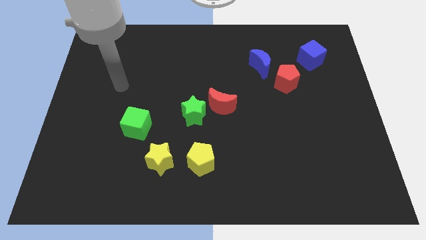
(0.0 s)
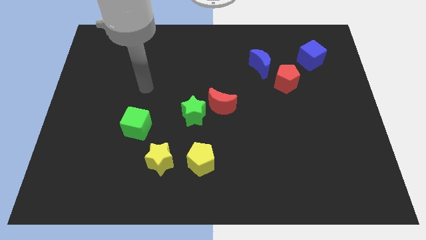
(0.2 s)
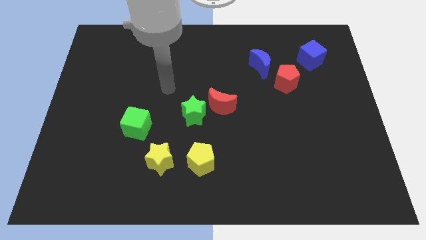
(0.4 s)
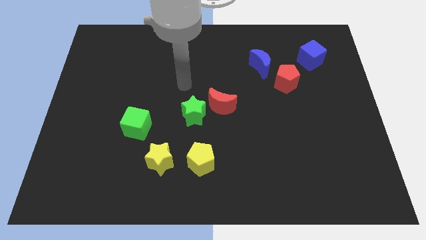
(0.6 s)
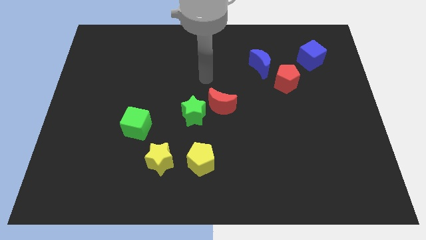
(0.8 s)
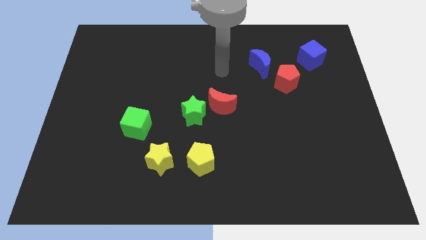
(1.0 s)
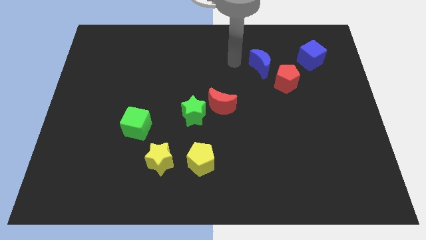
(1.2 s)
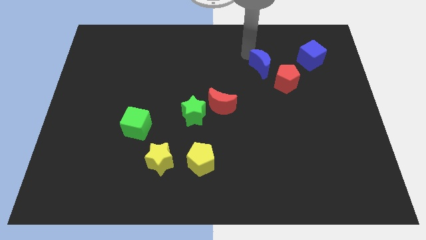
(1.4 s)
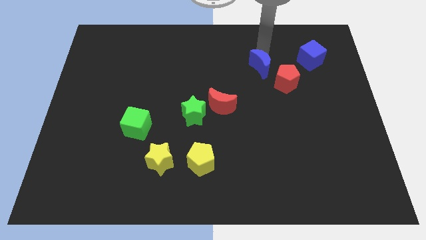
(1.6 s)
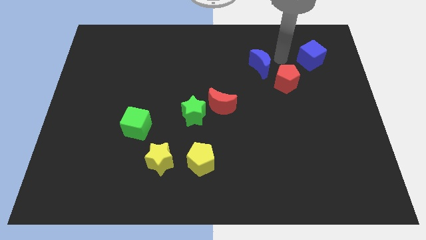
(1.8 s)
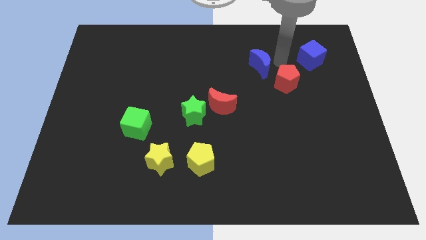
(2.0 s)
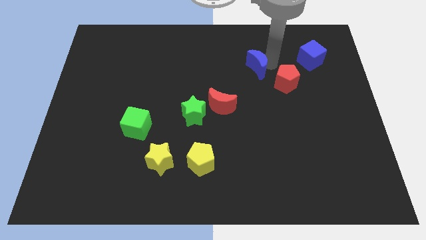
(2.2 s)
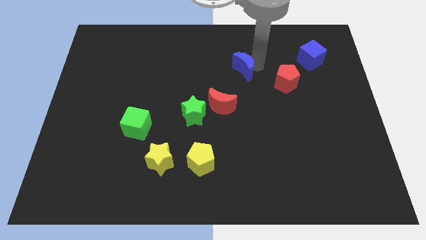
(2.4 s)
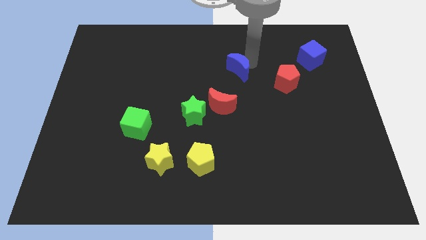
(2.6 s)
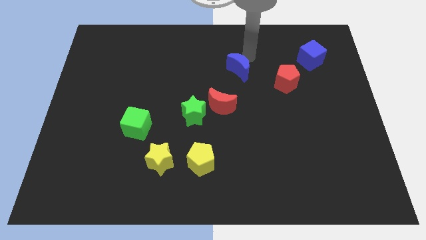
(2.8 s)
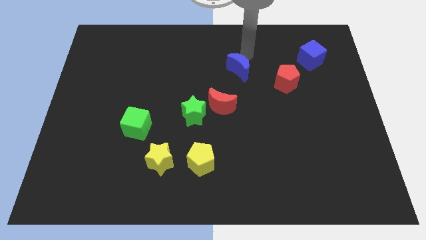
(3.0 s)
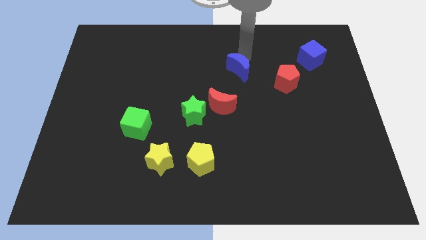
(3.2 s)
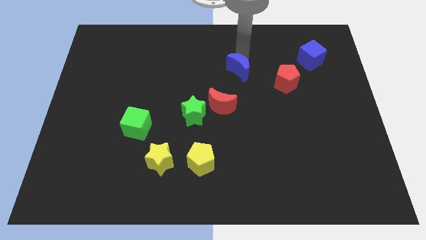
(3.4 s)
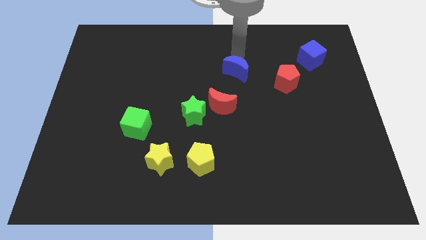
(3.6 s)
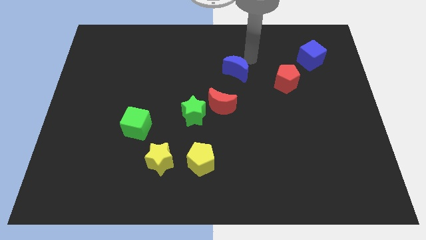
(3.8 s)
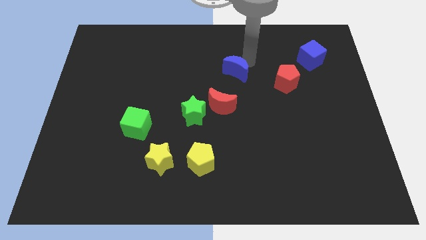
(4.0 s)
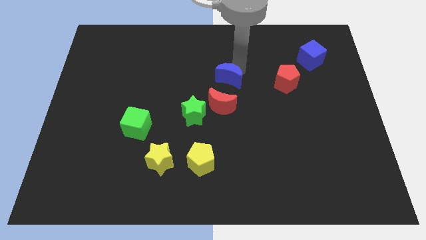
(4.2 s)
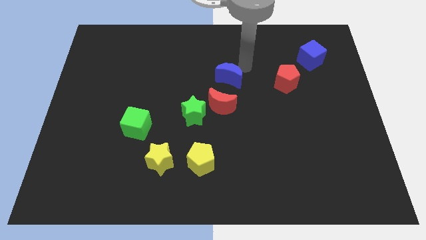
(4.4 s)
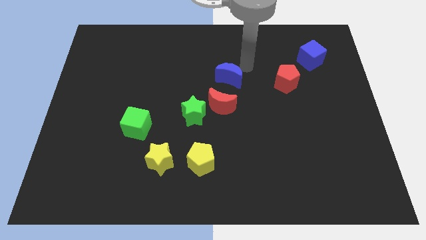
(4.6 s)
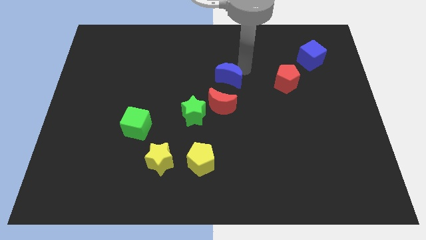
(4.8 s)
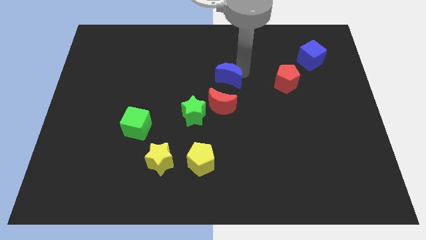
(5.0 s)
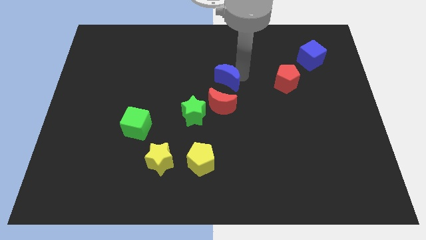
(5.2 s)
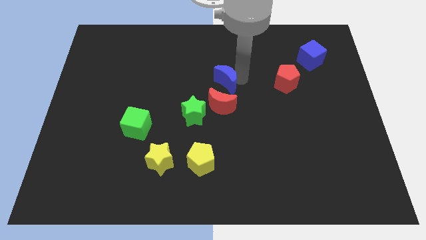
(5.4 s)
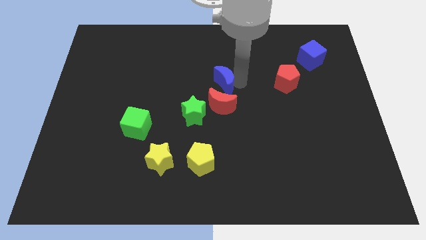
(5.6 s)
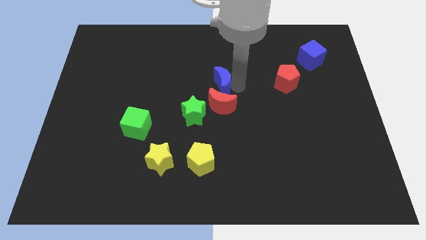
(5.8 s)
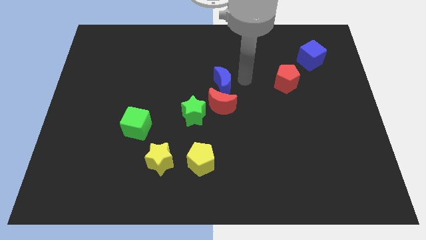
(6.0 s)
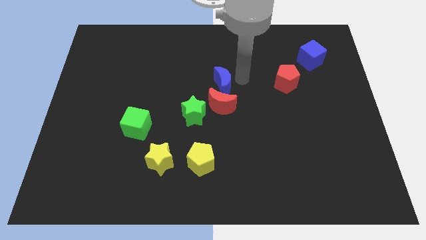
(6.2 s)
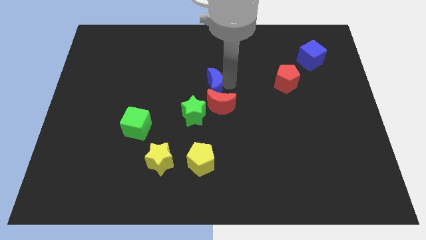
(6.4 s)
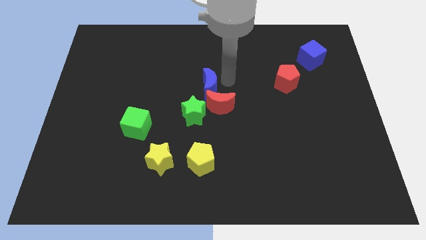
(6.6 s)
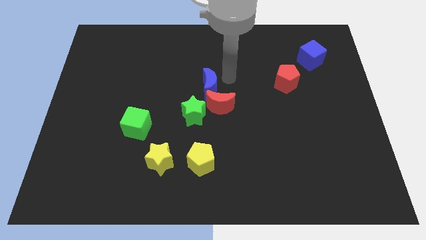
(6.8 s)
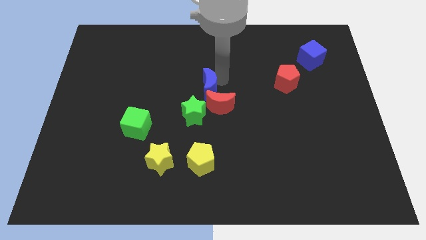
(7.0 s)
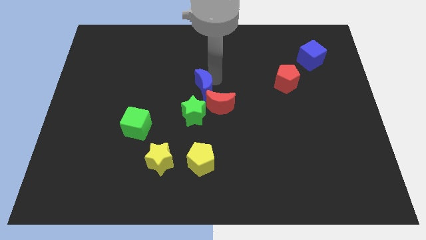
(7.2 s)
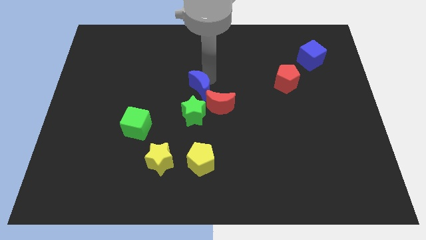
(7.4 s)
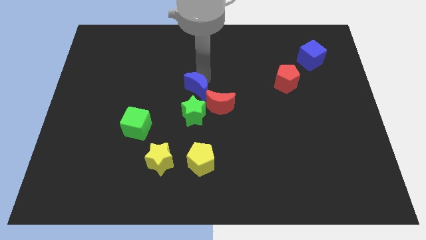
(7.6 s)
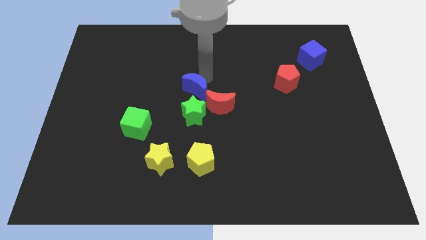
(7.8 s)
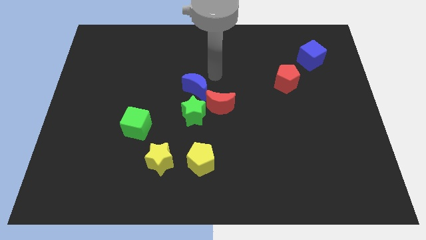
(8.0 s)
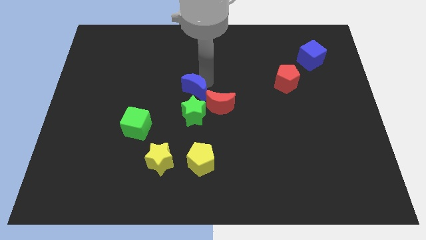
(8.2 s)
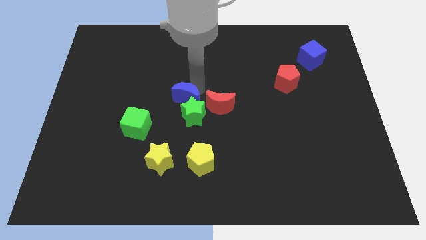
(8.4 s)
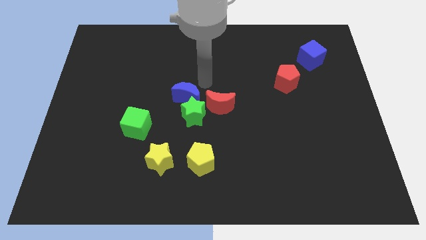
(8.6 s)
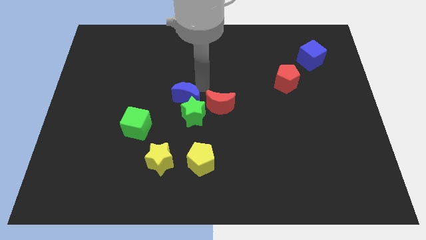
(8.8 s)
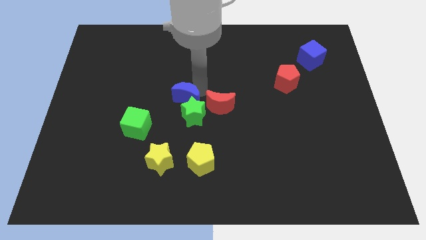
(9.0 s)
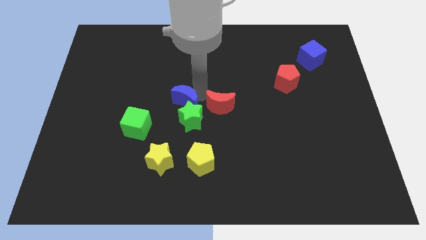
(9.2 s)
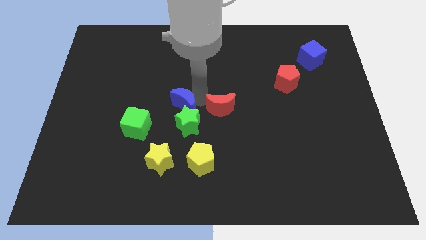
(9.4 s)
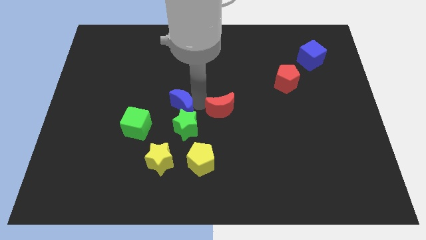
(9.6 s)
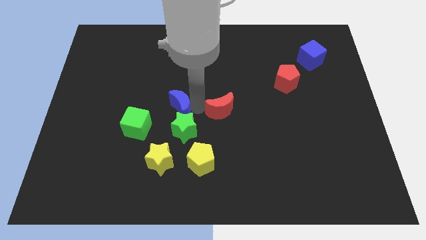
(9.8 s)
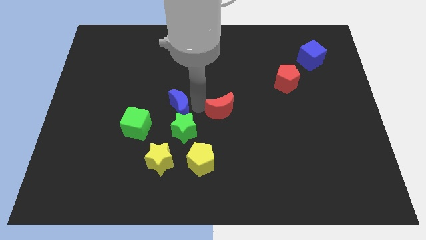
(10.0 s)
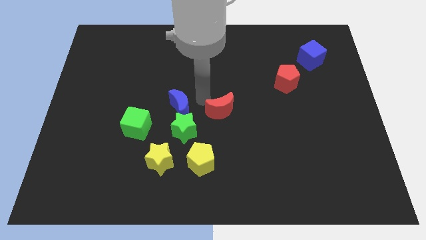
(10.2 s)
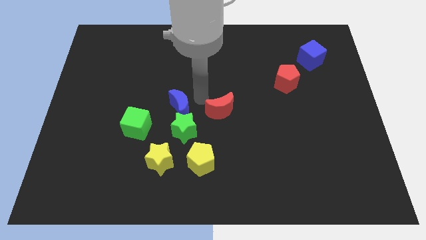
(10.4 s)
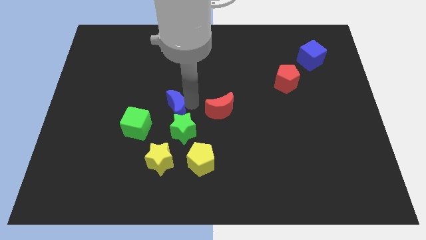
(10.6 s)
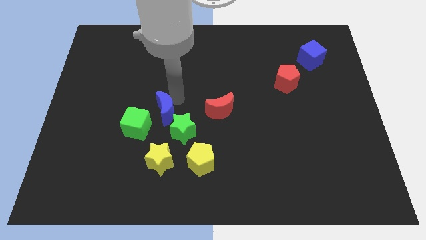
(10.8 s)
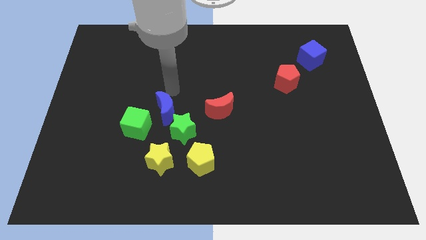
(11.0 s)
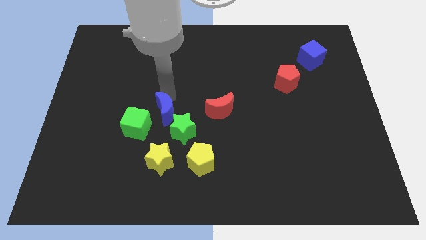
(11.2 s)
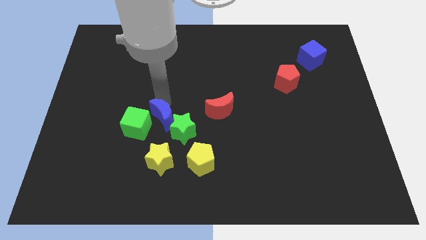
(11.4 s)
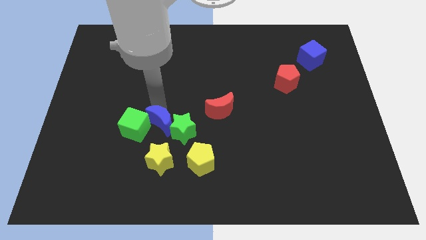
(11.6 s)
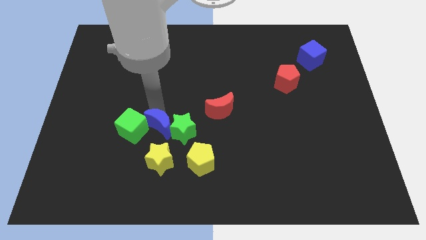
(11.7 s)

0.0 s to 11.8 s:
move the blue moon to the bottom left of the green star

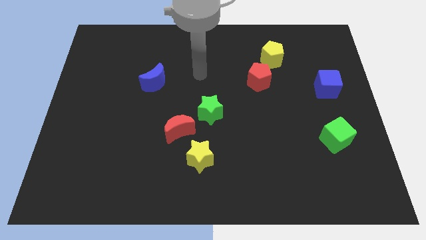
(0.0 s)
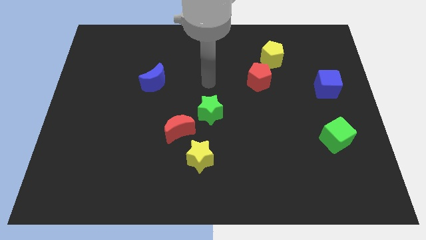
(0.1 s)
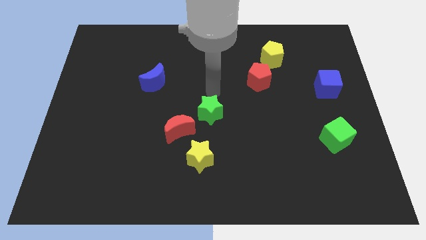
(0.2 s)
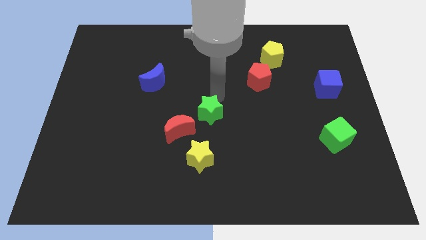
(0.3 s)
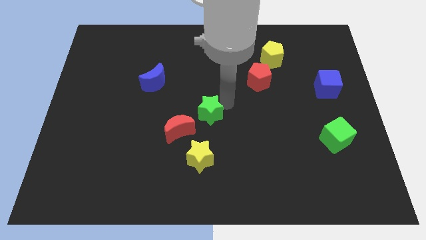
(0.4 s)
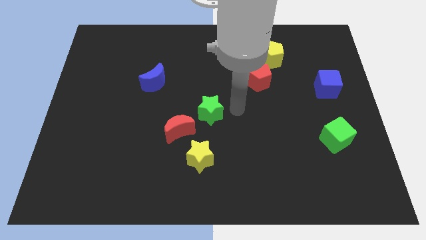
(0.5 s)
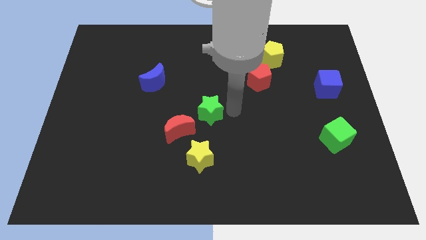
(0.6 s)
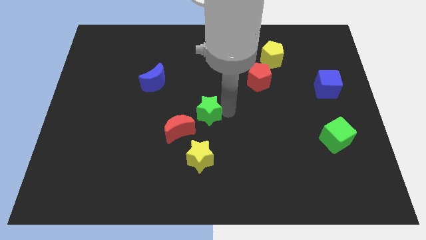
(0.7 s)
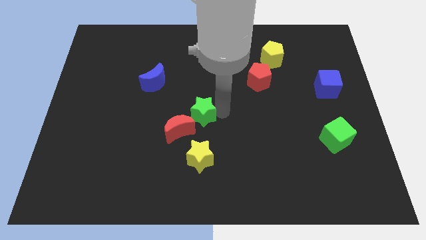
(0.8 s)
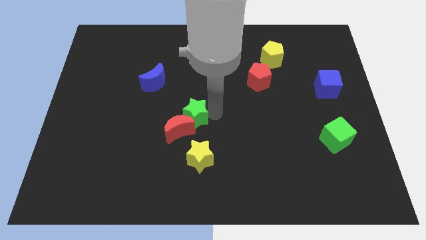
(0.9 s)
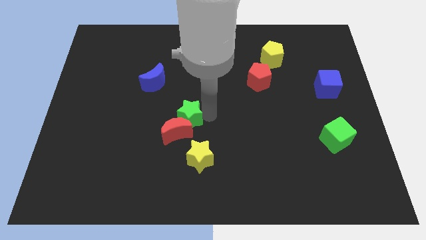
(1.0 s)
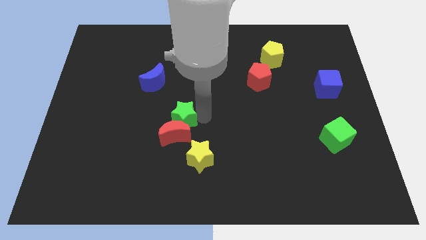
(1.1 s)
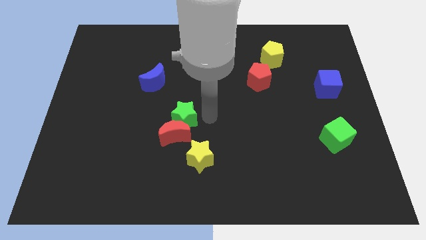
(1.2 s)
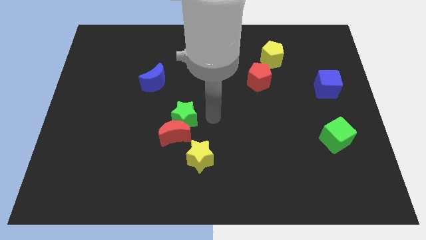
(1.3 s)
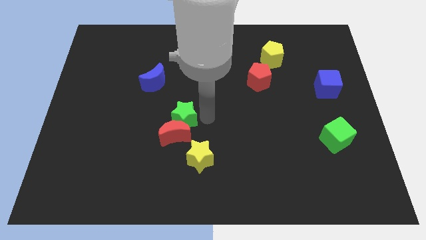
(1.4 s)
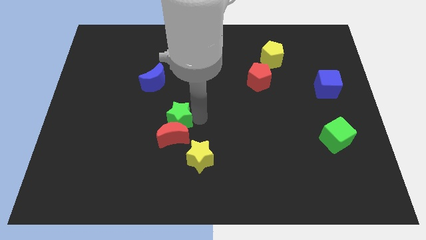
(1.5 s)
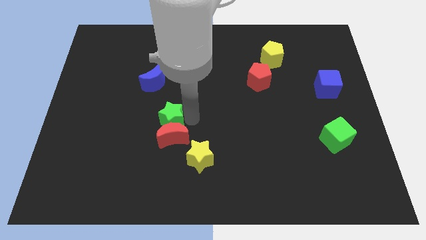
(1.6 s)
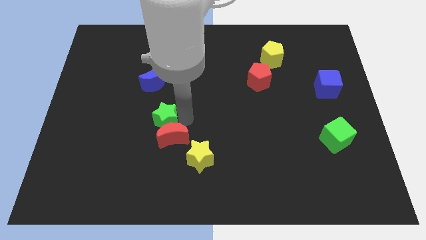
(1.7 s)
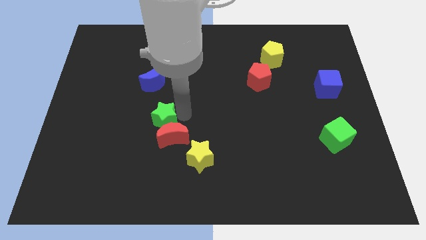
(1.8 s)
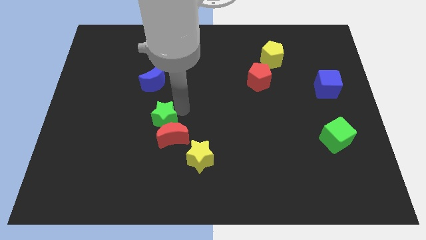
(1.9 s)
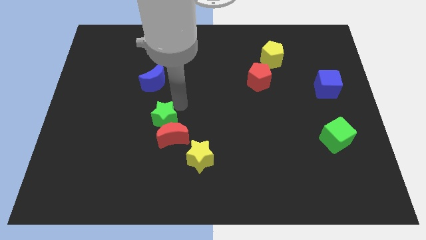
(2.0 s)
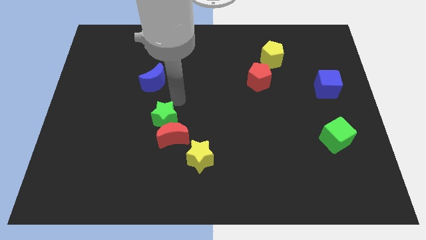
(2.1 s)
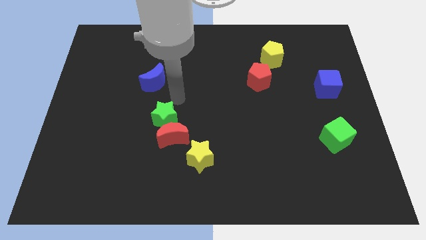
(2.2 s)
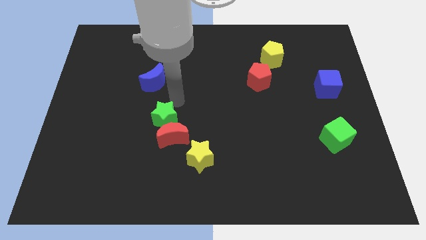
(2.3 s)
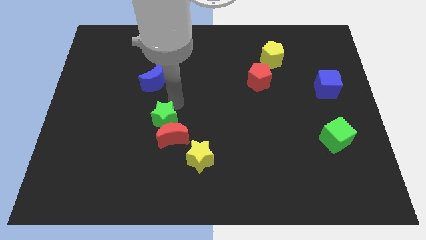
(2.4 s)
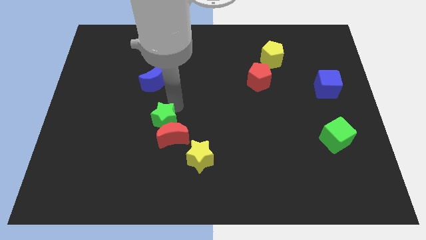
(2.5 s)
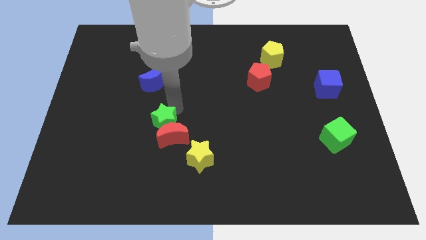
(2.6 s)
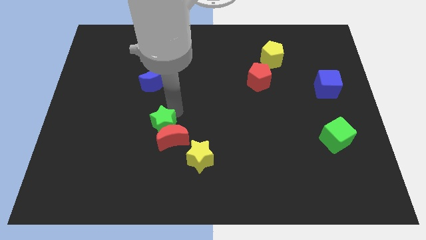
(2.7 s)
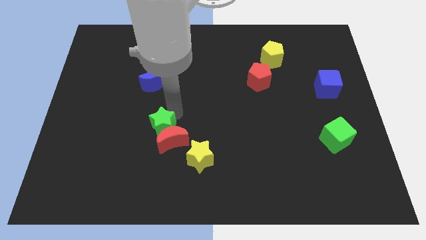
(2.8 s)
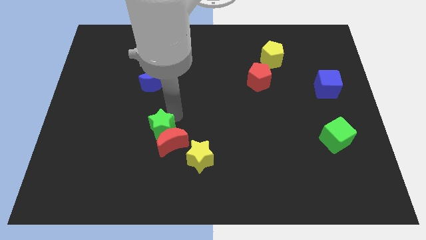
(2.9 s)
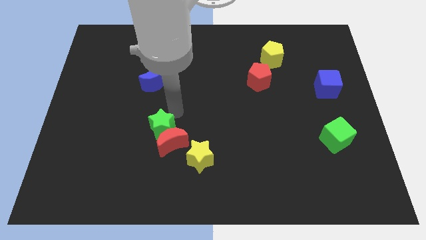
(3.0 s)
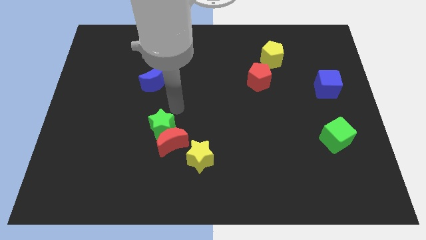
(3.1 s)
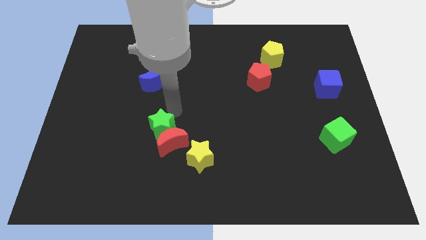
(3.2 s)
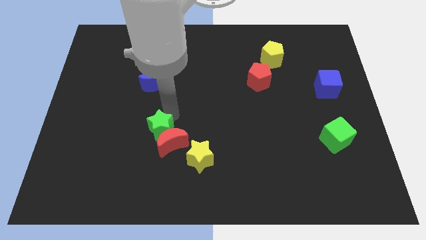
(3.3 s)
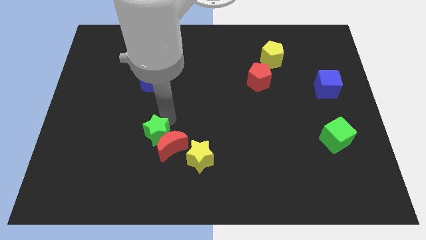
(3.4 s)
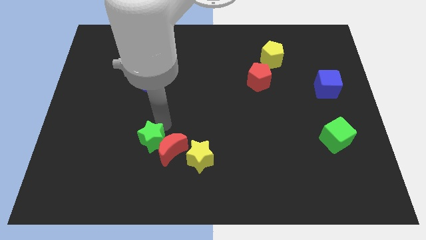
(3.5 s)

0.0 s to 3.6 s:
move the green star left of the yellow star
